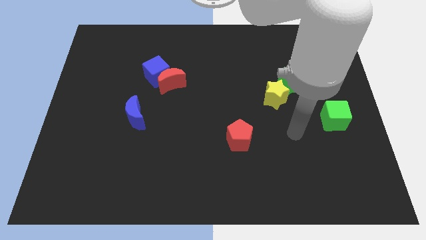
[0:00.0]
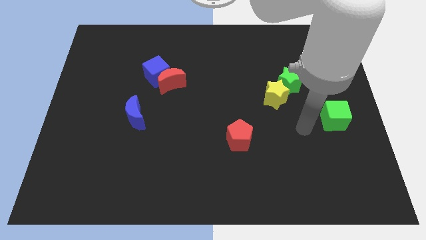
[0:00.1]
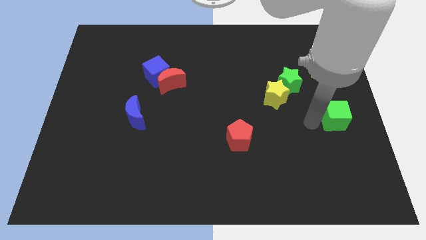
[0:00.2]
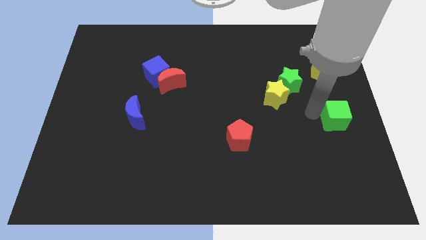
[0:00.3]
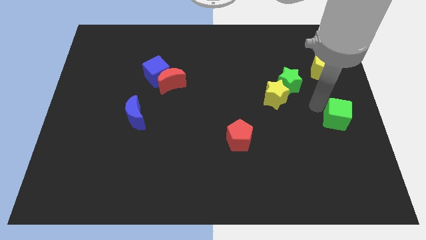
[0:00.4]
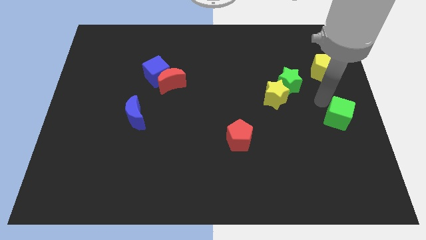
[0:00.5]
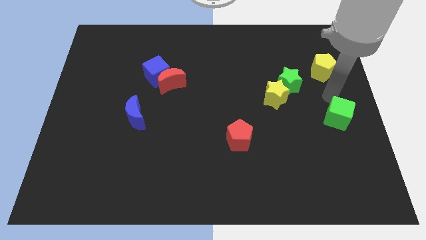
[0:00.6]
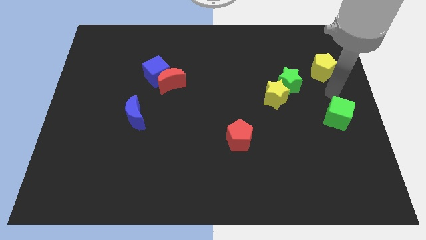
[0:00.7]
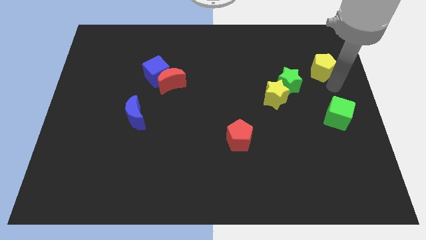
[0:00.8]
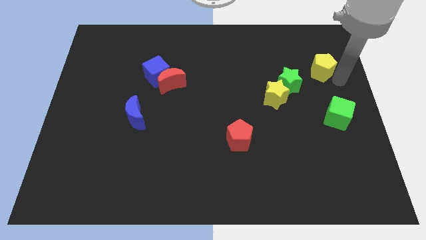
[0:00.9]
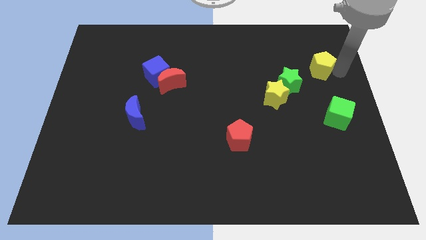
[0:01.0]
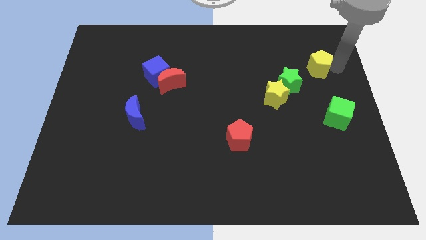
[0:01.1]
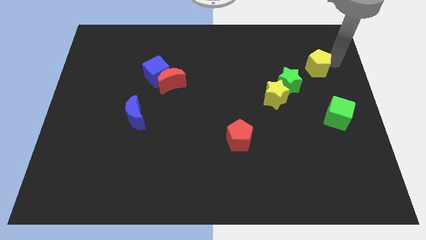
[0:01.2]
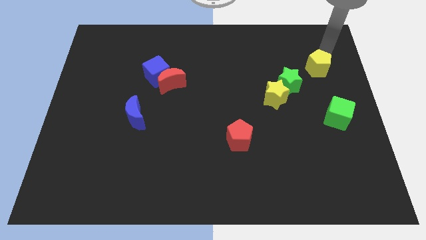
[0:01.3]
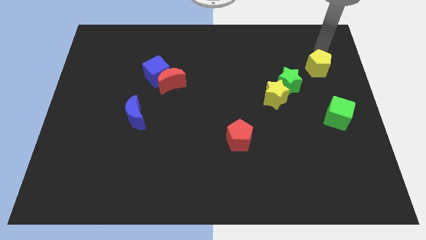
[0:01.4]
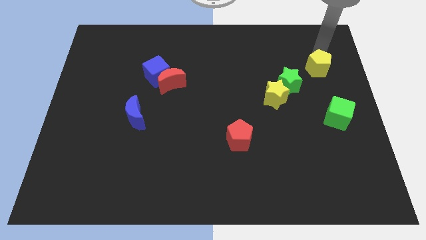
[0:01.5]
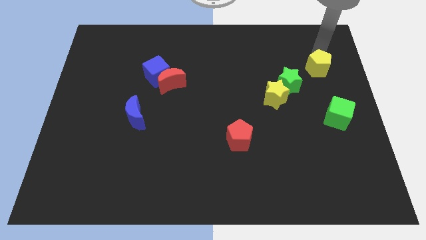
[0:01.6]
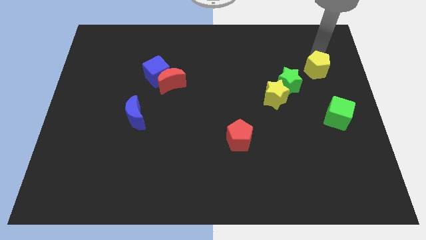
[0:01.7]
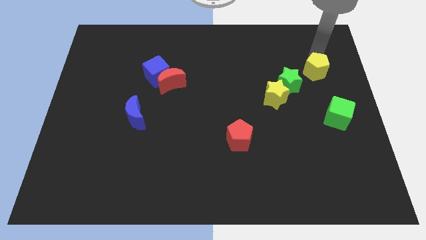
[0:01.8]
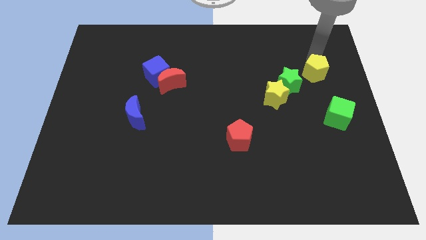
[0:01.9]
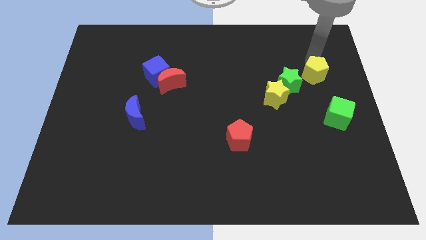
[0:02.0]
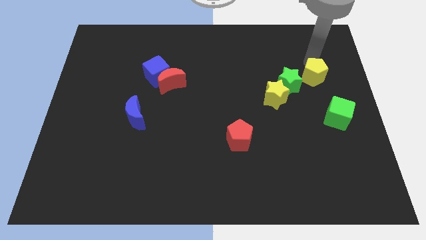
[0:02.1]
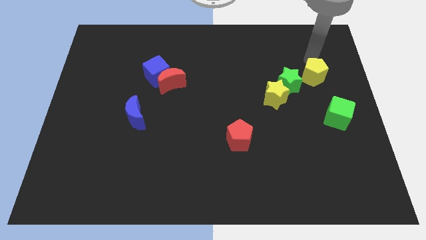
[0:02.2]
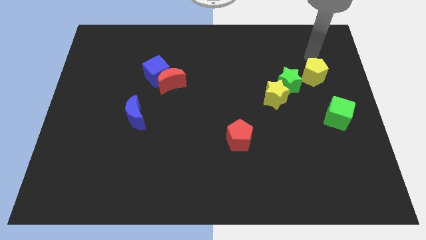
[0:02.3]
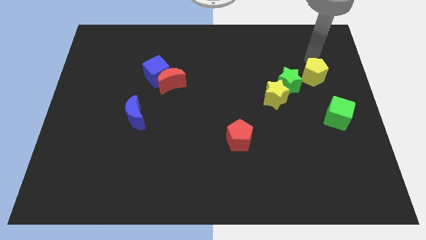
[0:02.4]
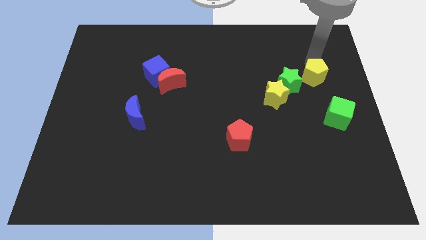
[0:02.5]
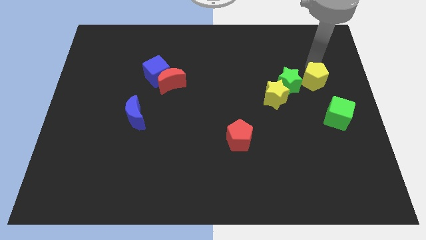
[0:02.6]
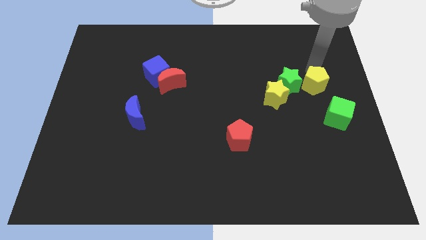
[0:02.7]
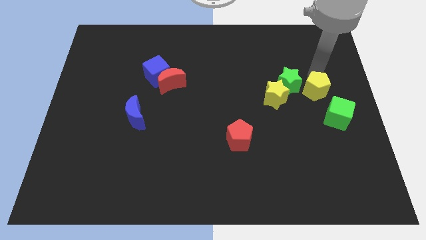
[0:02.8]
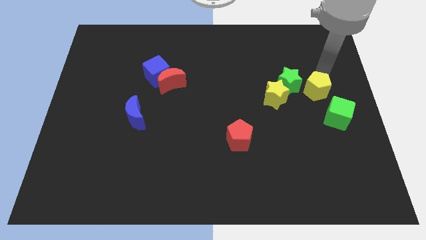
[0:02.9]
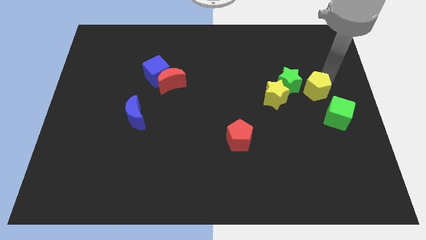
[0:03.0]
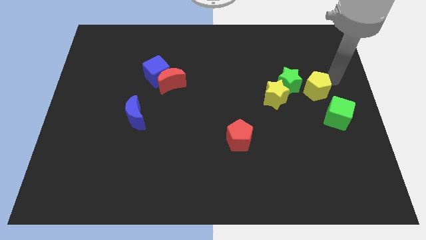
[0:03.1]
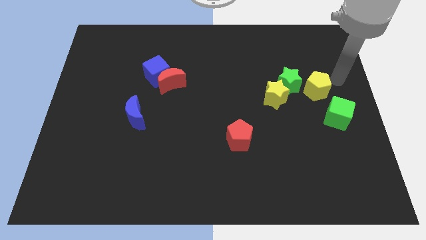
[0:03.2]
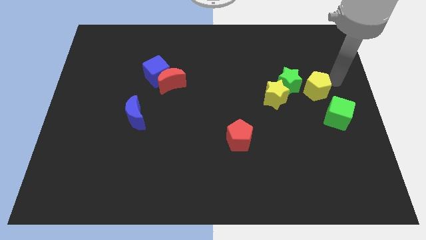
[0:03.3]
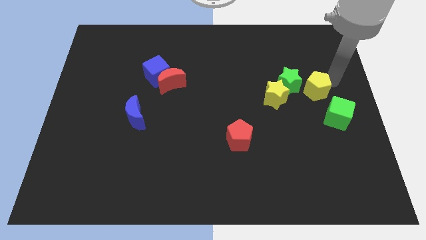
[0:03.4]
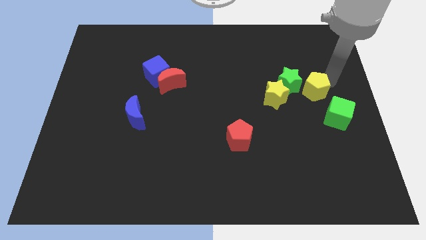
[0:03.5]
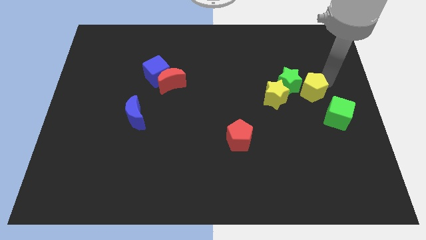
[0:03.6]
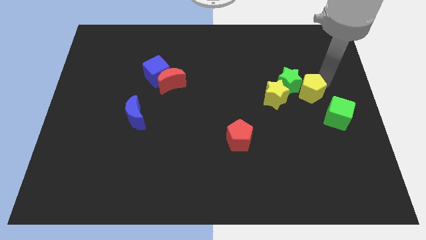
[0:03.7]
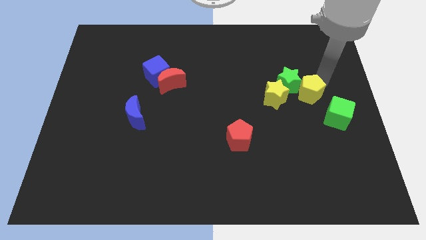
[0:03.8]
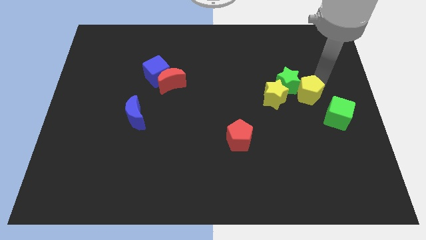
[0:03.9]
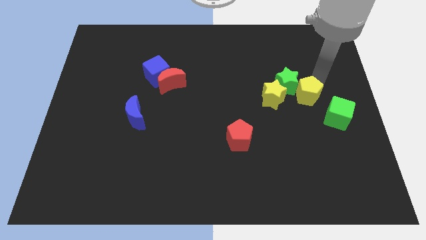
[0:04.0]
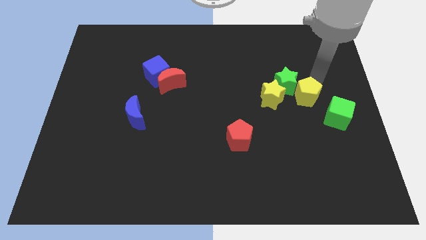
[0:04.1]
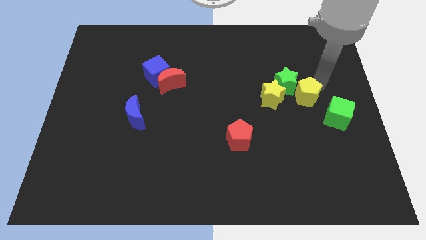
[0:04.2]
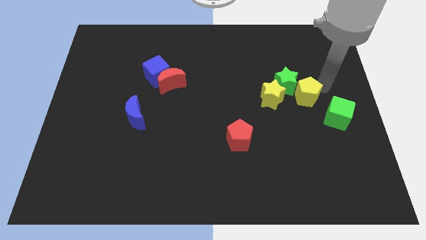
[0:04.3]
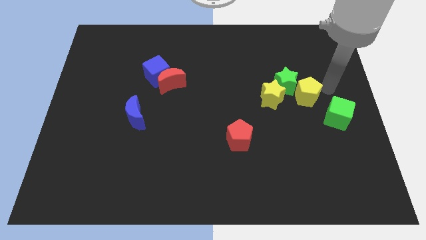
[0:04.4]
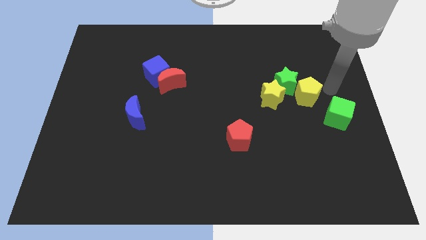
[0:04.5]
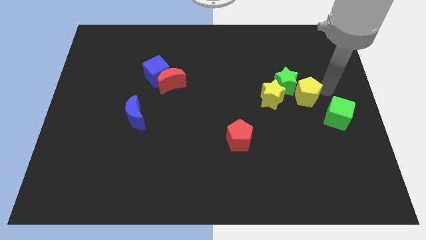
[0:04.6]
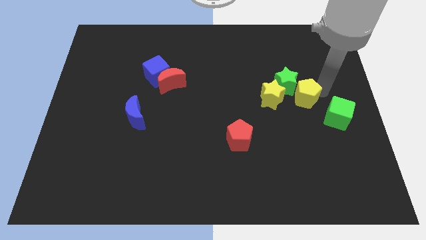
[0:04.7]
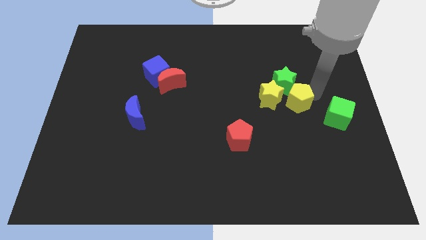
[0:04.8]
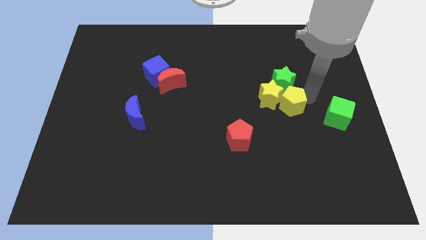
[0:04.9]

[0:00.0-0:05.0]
move the yellow pentagon next to the yellow star

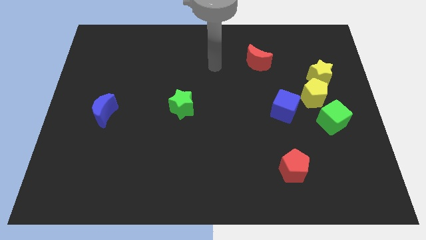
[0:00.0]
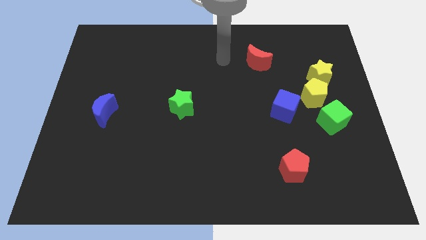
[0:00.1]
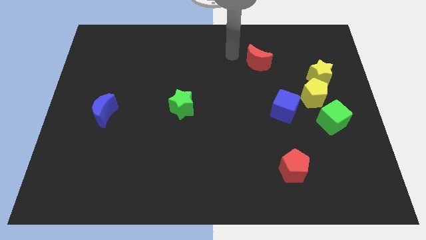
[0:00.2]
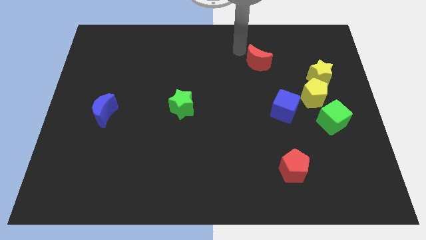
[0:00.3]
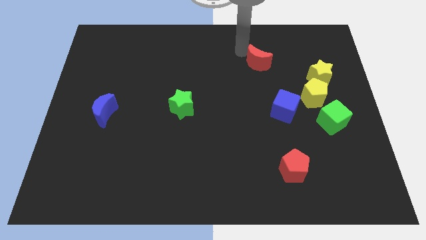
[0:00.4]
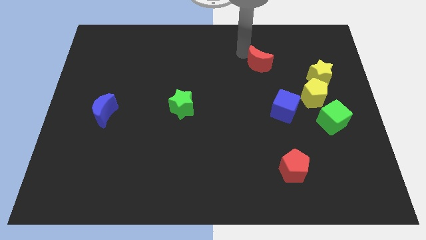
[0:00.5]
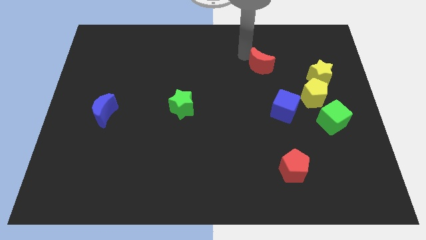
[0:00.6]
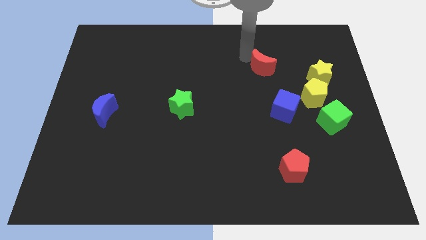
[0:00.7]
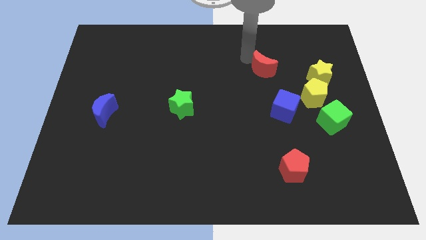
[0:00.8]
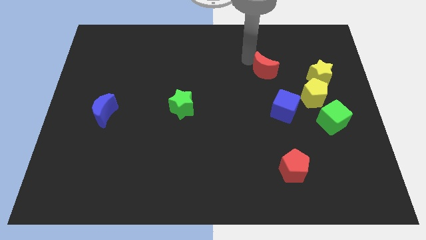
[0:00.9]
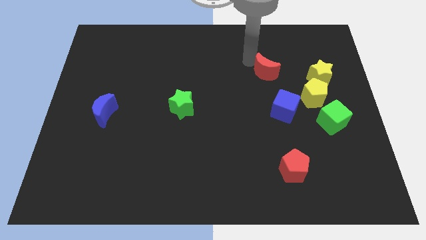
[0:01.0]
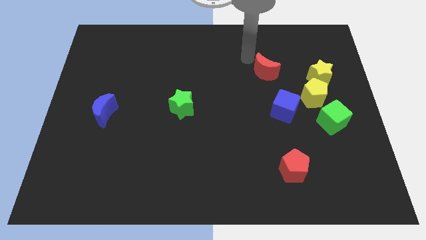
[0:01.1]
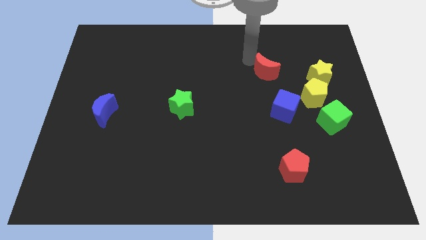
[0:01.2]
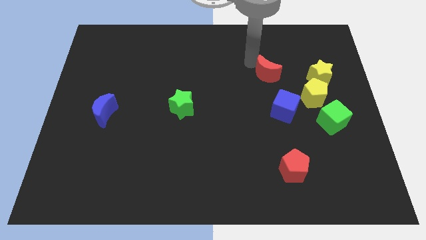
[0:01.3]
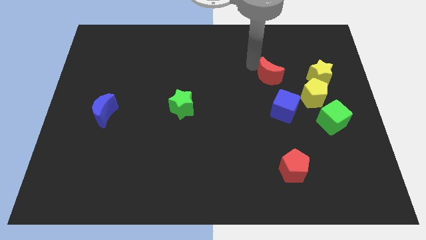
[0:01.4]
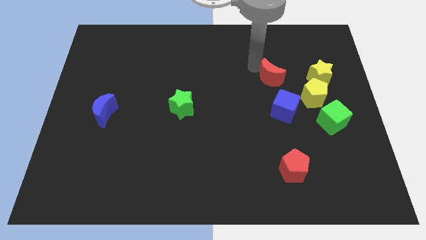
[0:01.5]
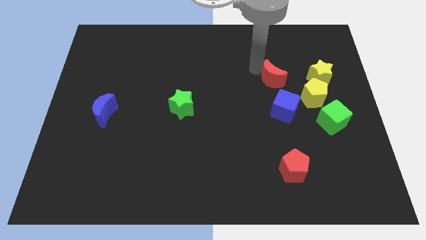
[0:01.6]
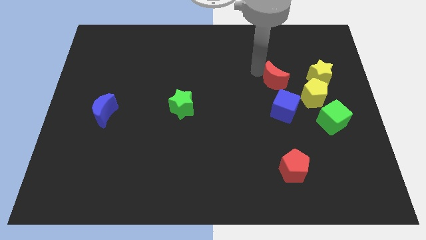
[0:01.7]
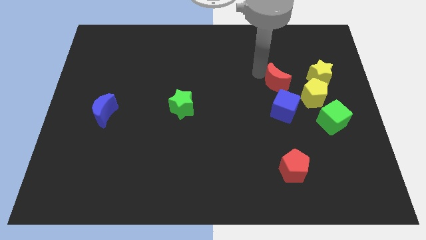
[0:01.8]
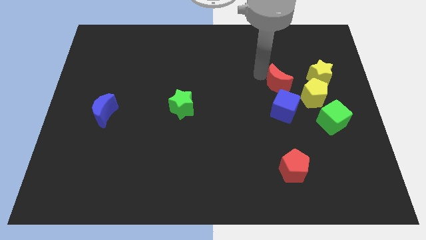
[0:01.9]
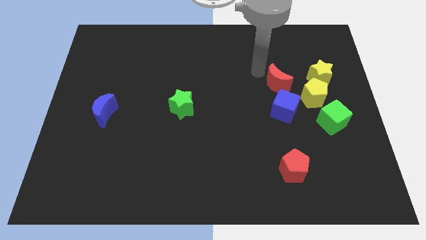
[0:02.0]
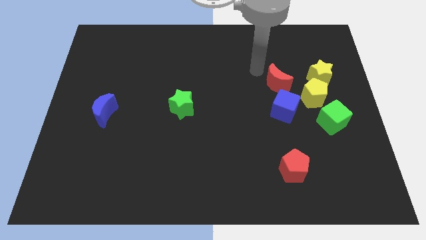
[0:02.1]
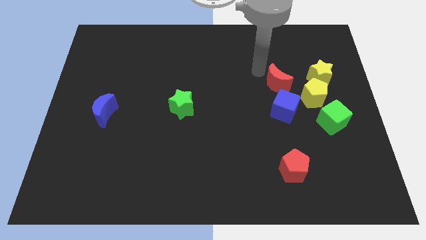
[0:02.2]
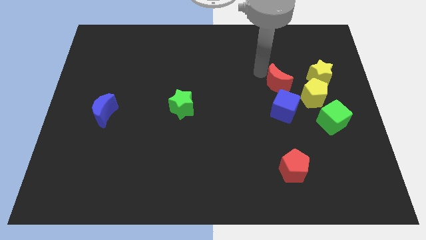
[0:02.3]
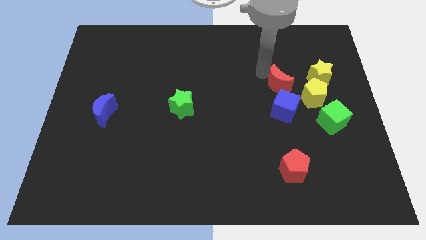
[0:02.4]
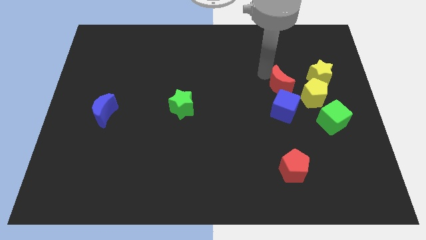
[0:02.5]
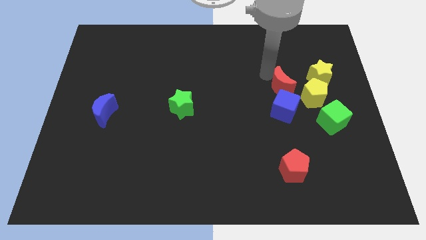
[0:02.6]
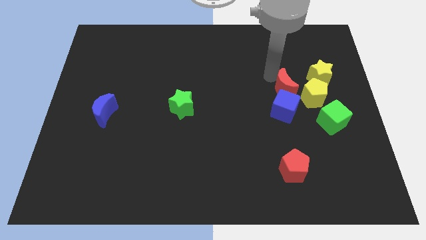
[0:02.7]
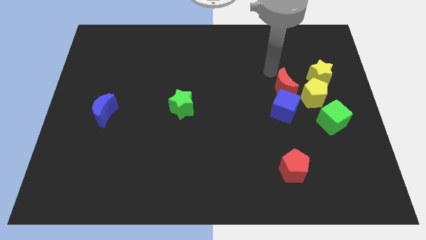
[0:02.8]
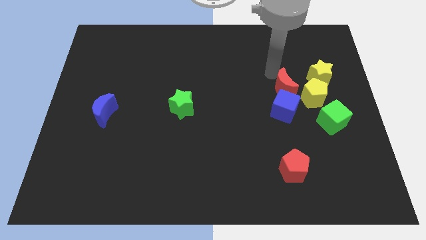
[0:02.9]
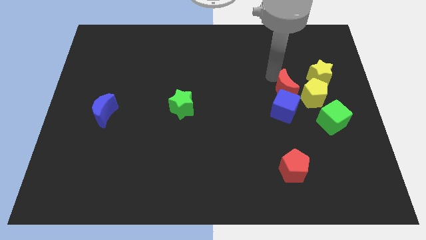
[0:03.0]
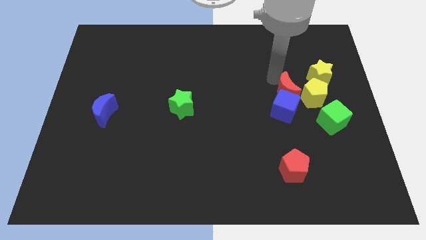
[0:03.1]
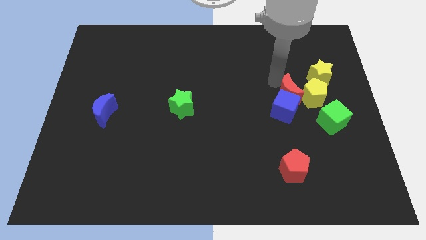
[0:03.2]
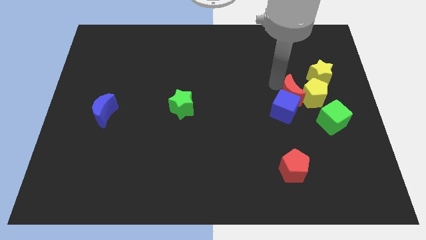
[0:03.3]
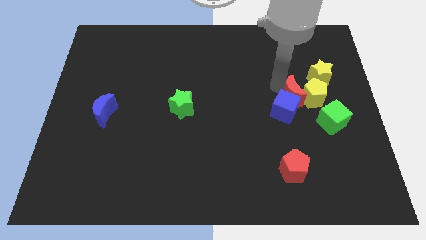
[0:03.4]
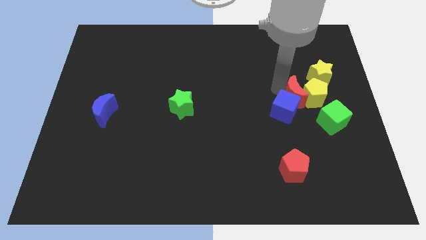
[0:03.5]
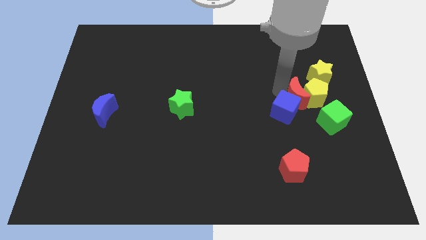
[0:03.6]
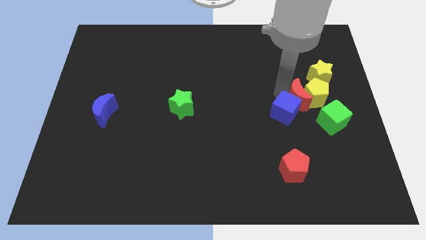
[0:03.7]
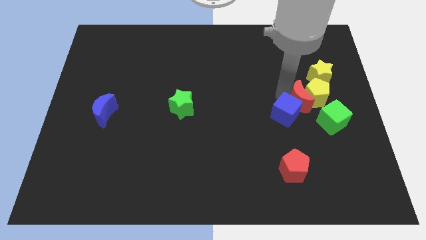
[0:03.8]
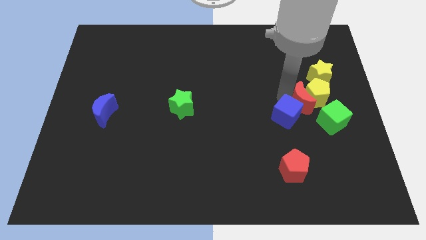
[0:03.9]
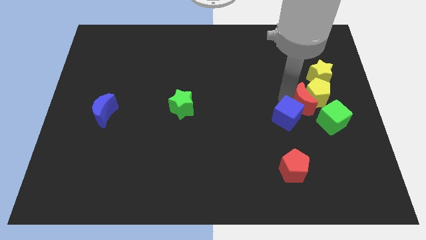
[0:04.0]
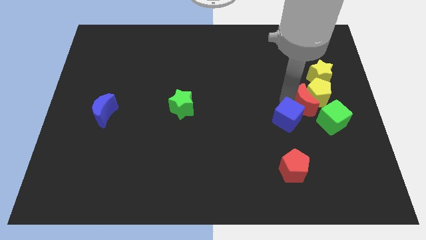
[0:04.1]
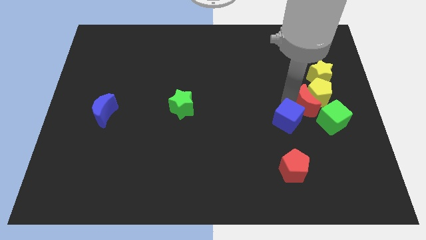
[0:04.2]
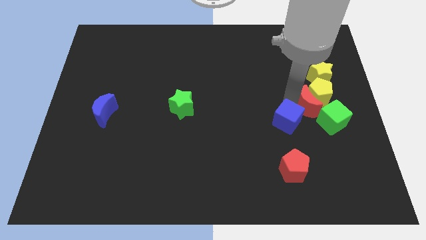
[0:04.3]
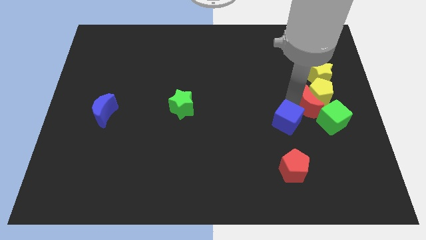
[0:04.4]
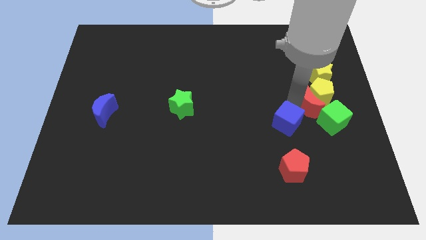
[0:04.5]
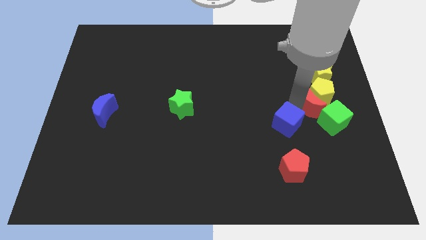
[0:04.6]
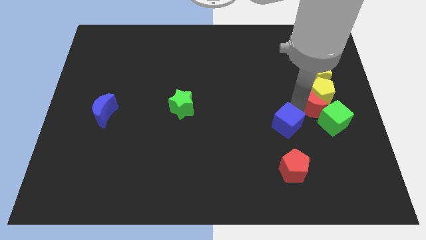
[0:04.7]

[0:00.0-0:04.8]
push the red moon to the green cube
